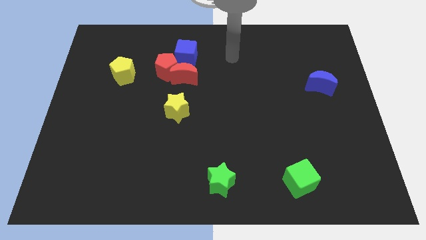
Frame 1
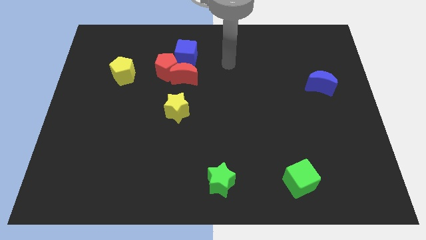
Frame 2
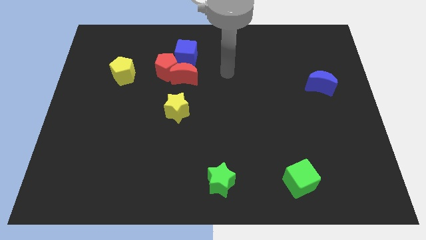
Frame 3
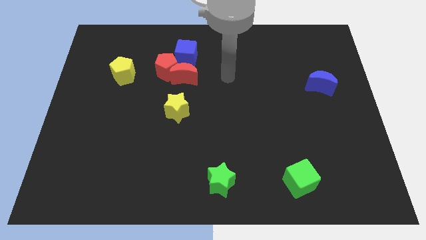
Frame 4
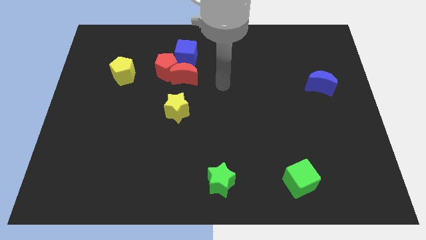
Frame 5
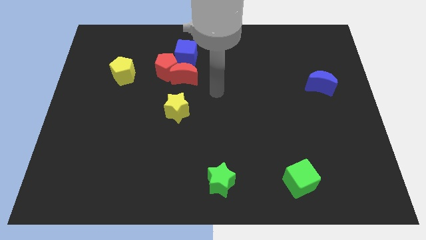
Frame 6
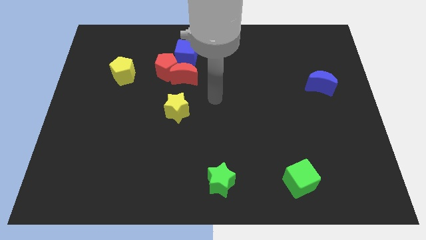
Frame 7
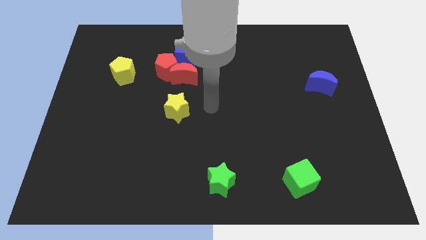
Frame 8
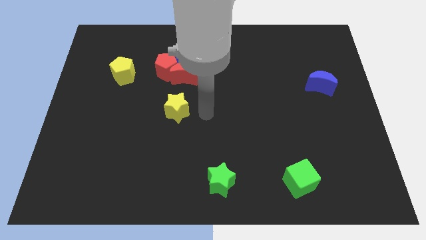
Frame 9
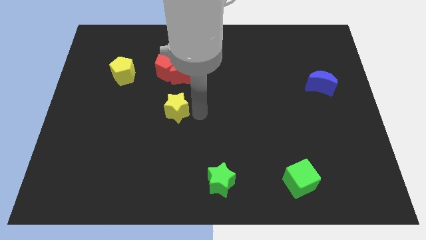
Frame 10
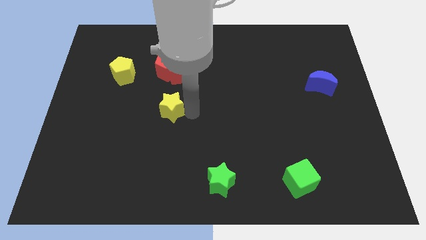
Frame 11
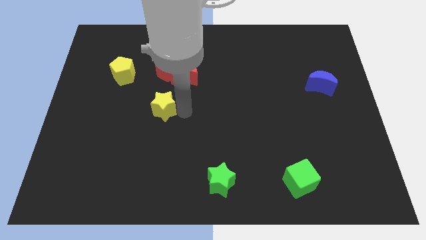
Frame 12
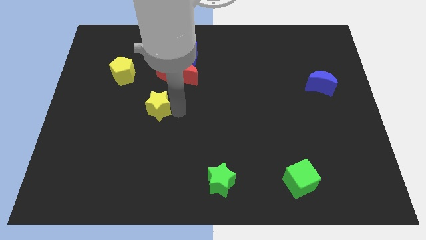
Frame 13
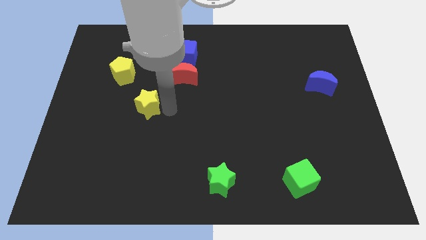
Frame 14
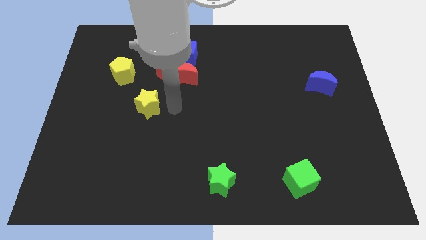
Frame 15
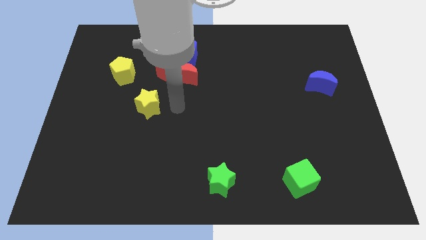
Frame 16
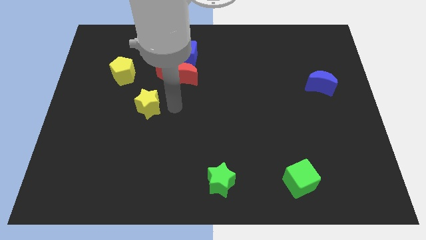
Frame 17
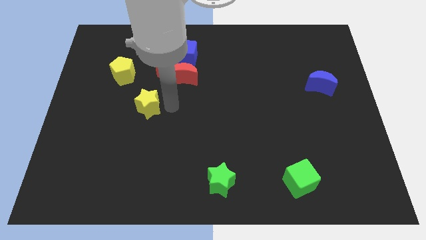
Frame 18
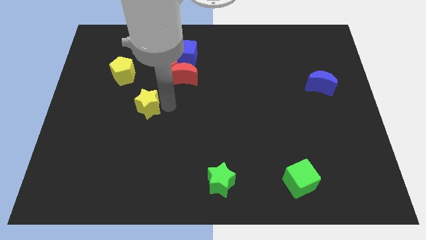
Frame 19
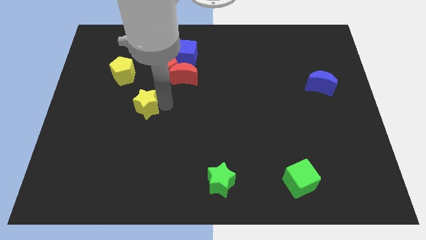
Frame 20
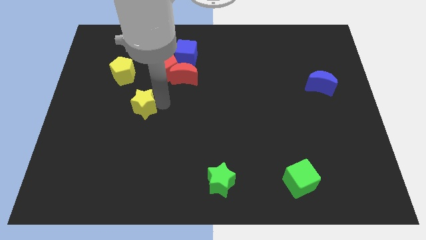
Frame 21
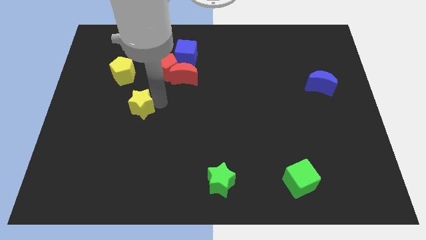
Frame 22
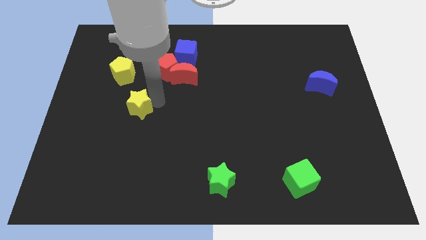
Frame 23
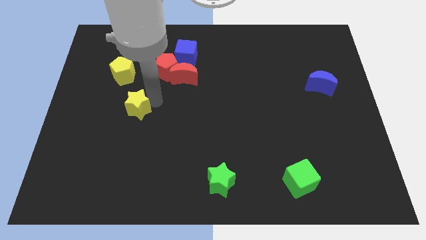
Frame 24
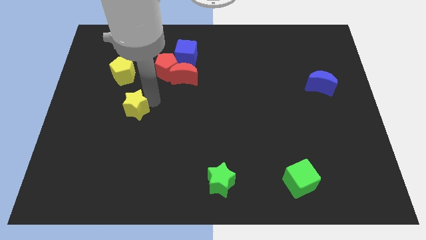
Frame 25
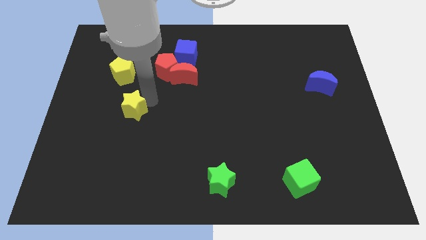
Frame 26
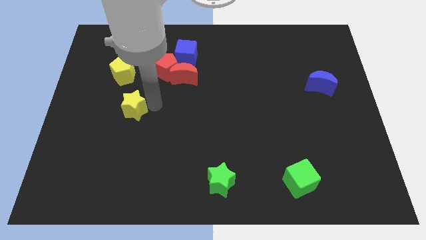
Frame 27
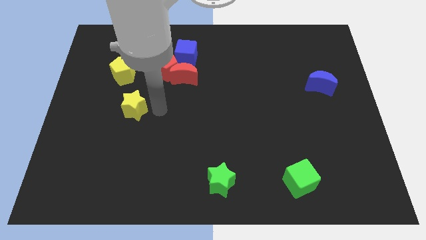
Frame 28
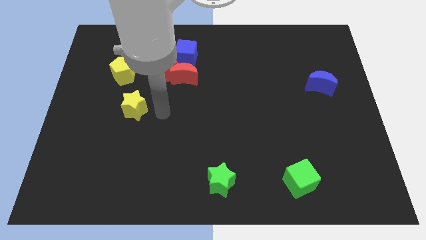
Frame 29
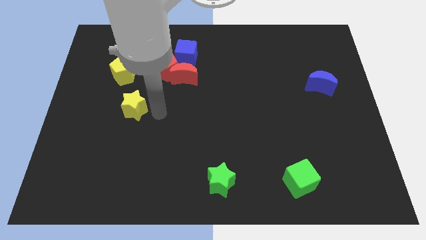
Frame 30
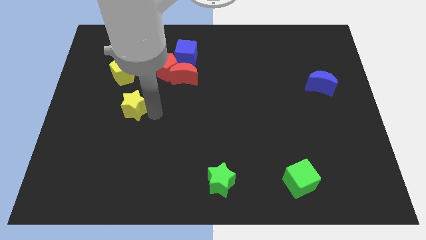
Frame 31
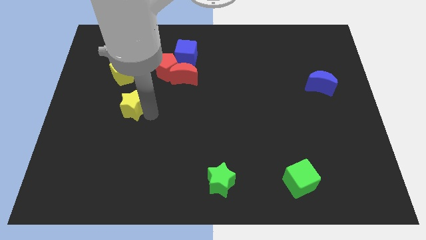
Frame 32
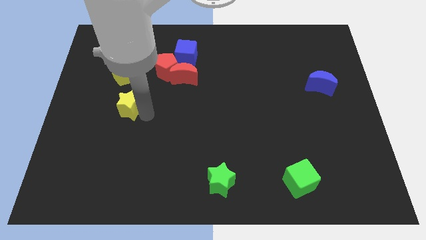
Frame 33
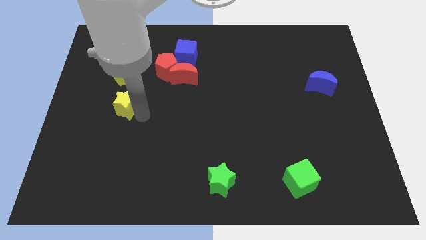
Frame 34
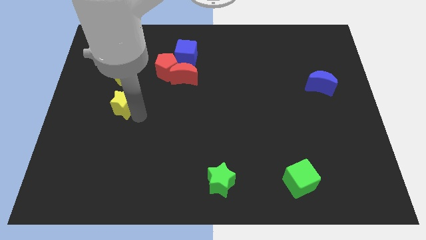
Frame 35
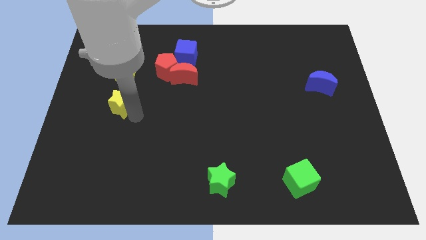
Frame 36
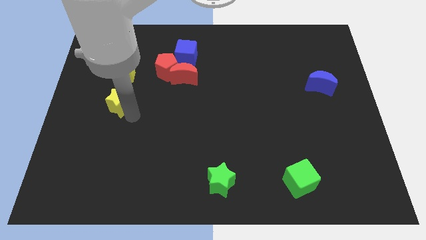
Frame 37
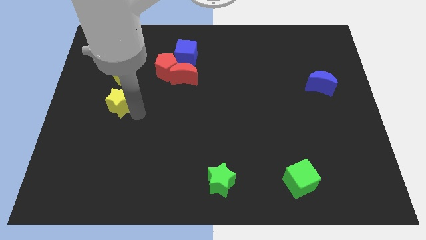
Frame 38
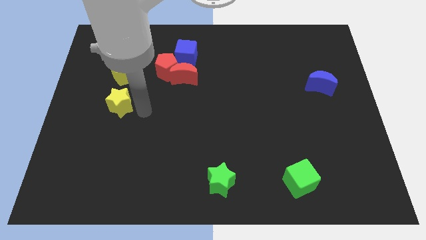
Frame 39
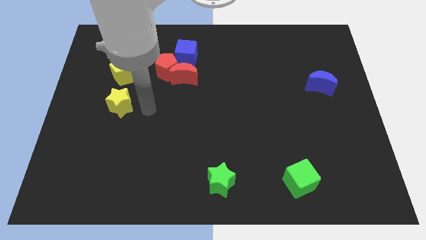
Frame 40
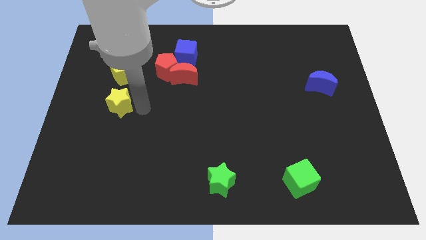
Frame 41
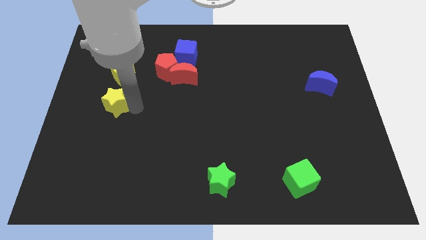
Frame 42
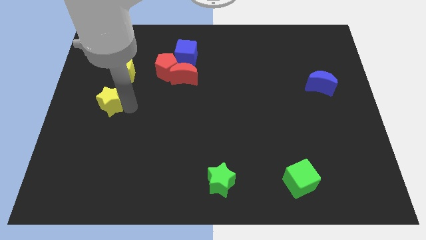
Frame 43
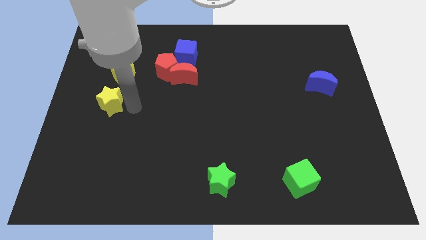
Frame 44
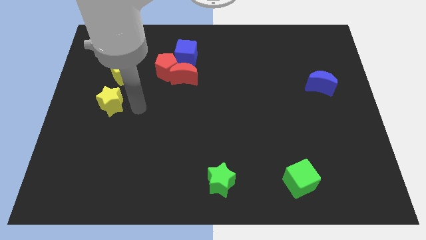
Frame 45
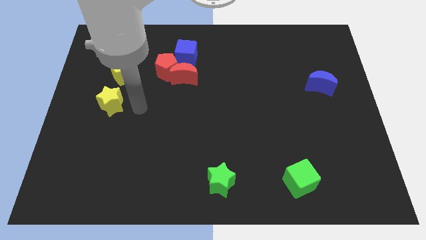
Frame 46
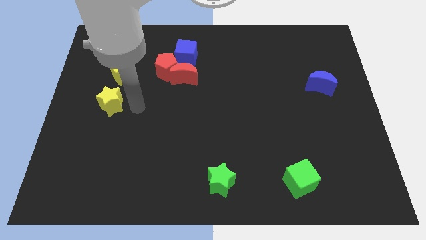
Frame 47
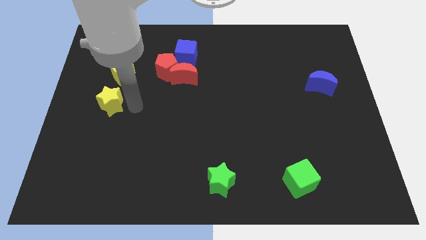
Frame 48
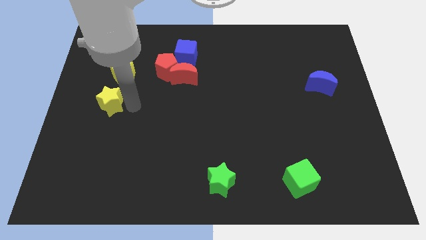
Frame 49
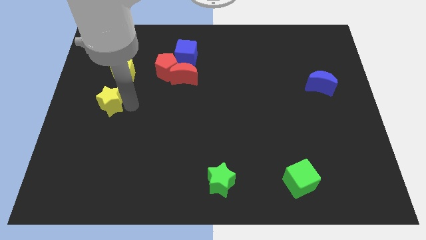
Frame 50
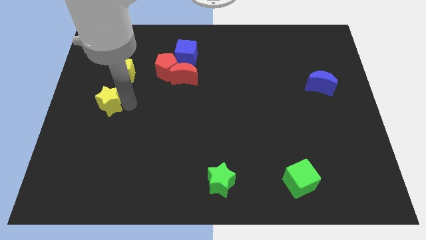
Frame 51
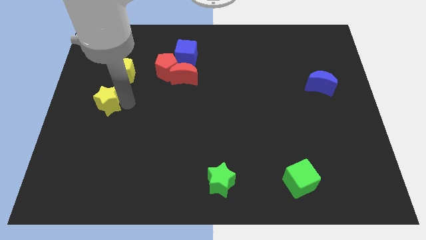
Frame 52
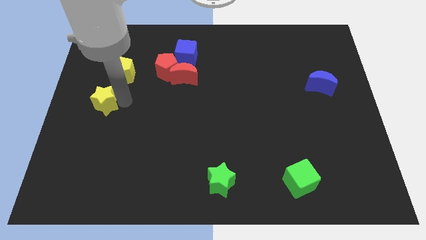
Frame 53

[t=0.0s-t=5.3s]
put the yellow star to the left side of the board

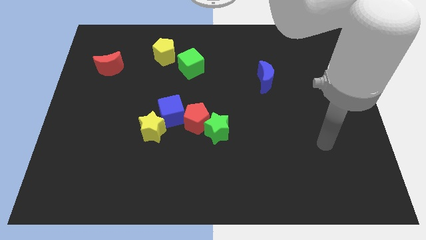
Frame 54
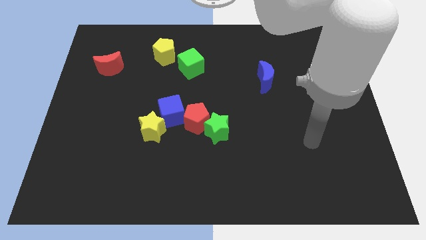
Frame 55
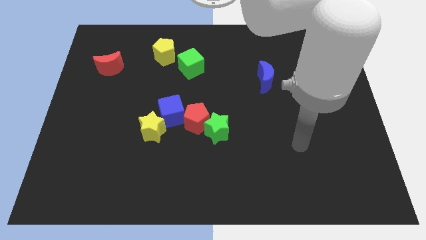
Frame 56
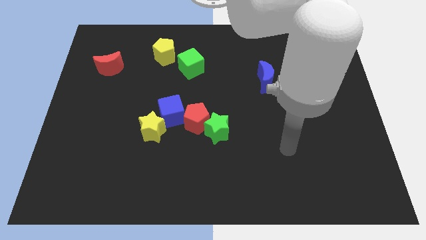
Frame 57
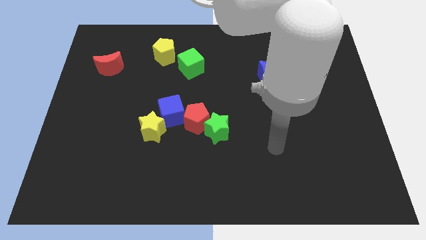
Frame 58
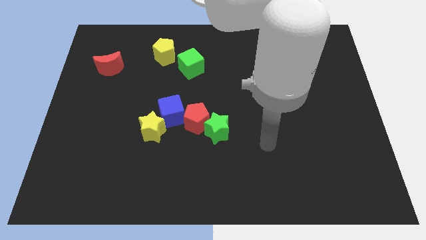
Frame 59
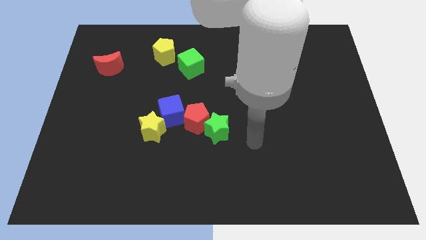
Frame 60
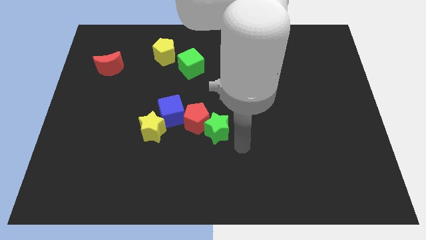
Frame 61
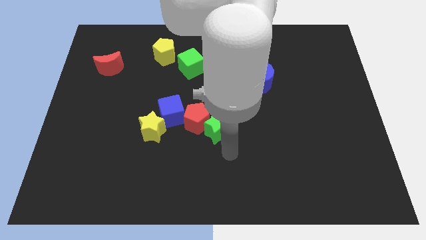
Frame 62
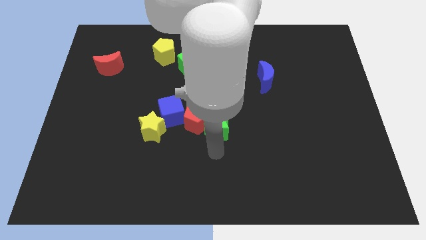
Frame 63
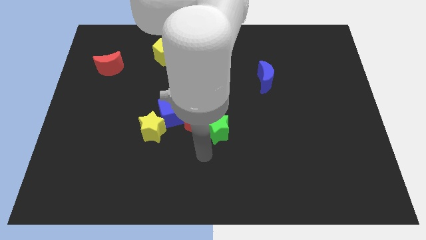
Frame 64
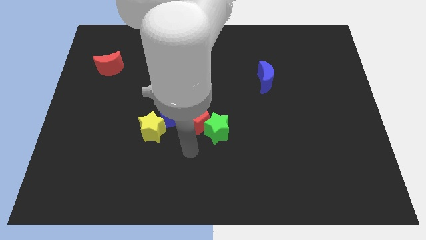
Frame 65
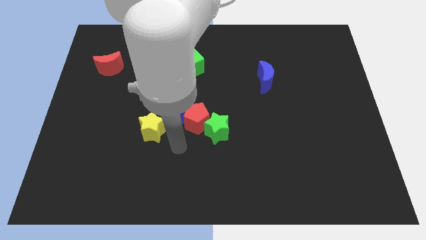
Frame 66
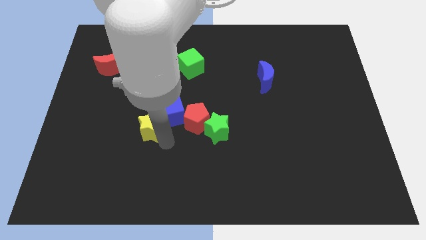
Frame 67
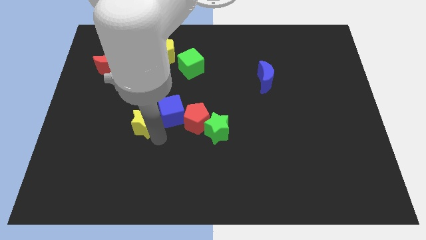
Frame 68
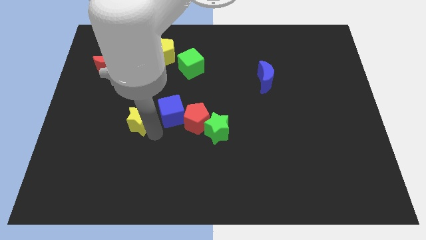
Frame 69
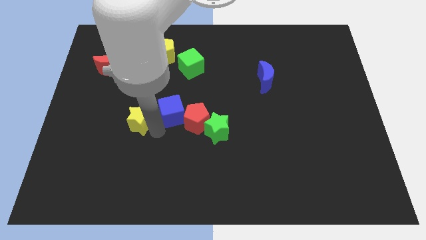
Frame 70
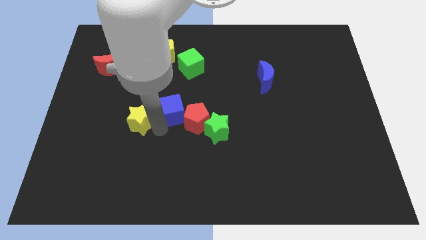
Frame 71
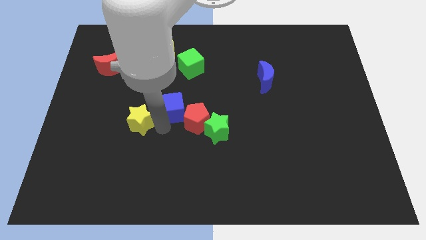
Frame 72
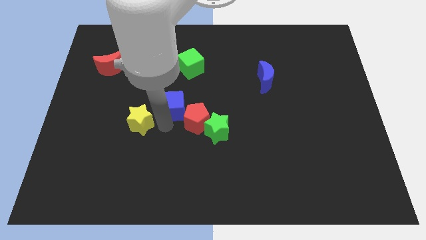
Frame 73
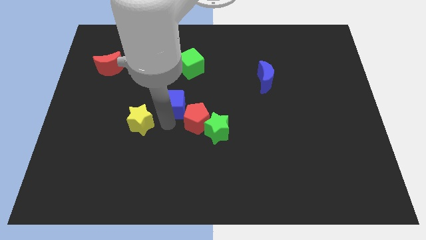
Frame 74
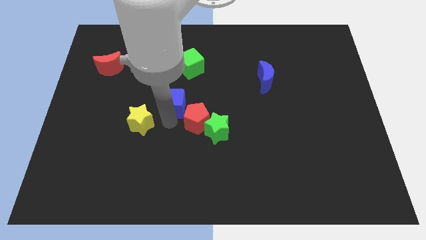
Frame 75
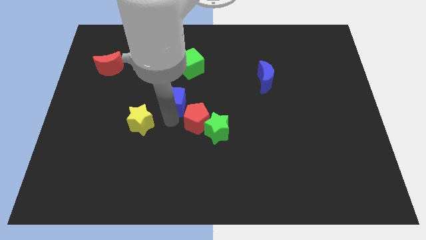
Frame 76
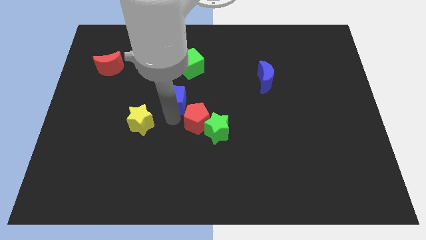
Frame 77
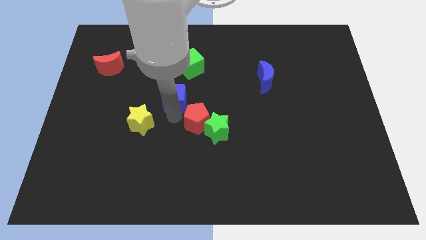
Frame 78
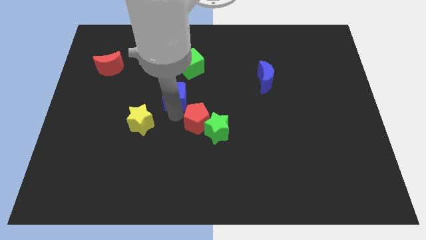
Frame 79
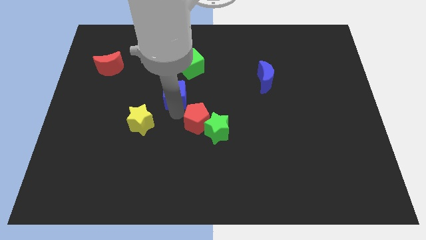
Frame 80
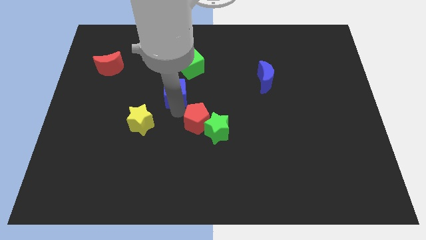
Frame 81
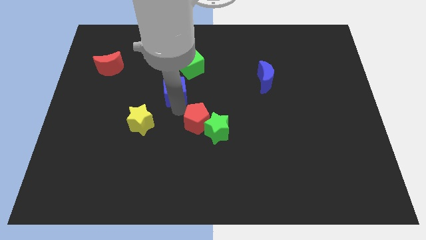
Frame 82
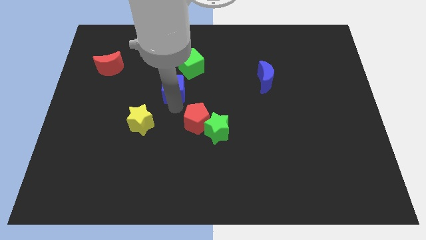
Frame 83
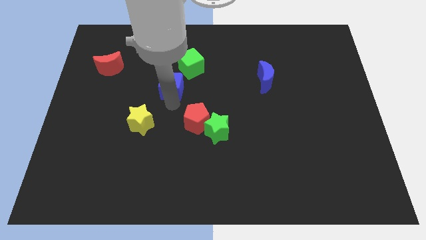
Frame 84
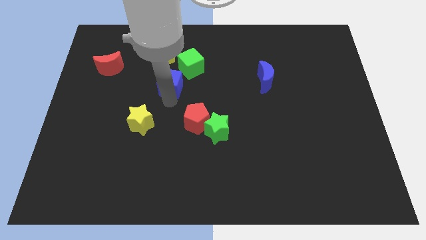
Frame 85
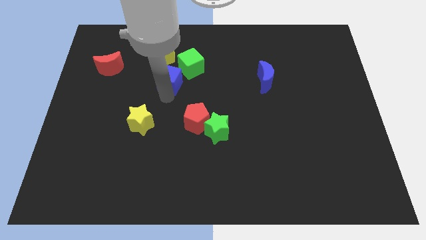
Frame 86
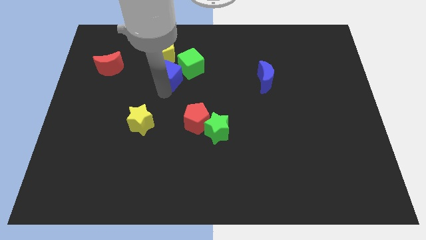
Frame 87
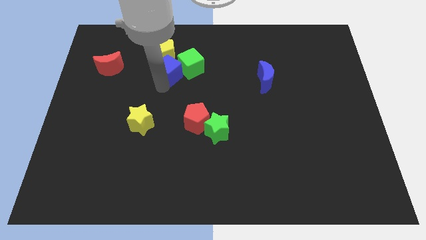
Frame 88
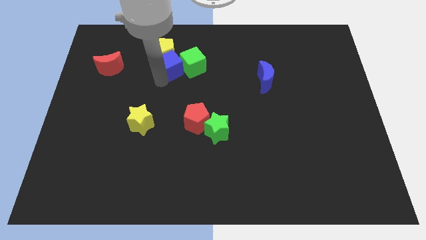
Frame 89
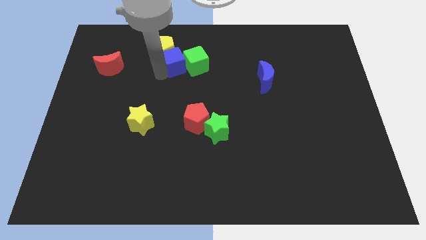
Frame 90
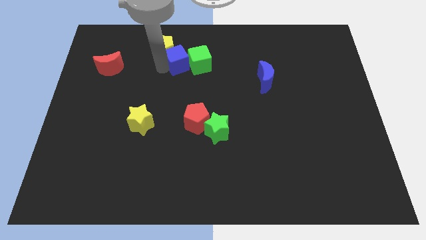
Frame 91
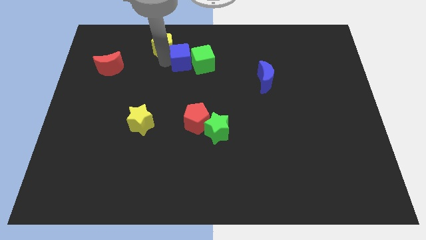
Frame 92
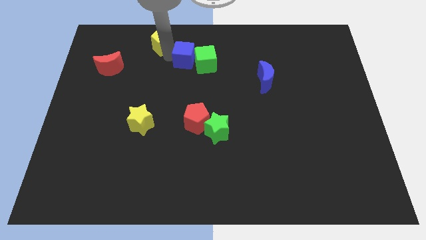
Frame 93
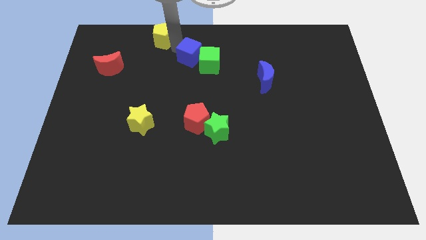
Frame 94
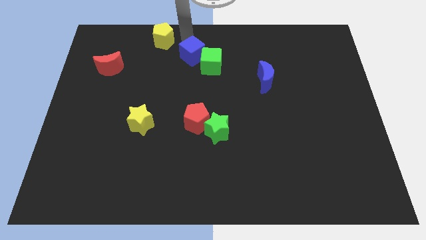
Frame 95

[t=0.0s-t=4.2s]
move the blue cube to the towards your base
